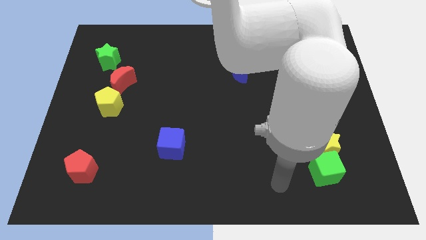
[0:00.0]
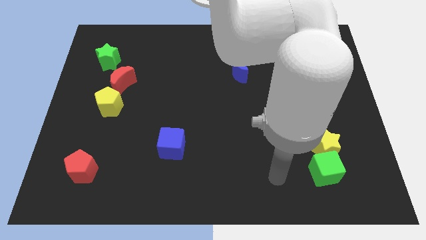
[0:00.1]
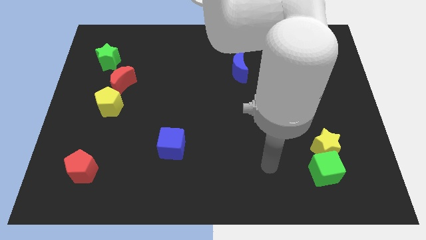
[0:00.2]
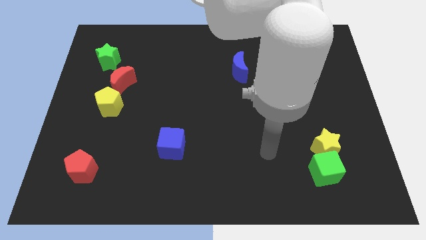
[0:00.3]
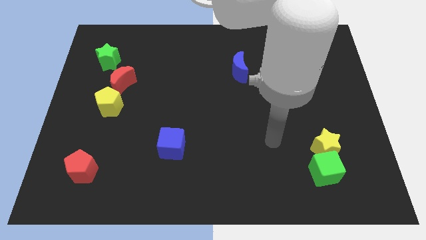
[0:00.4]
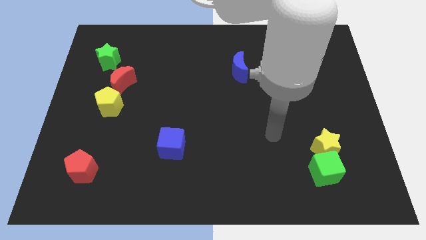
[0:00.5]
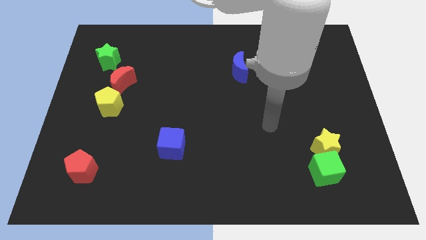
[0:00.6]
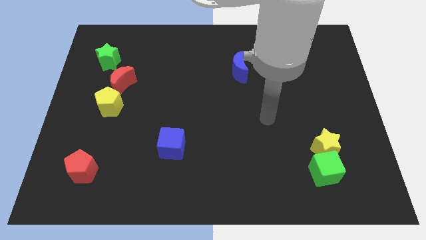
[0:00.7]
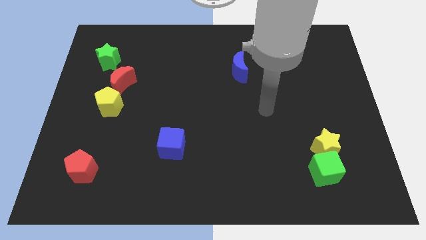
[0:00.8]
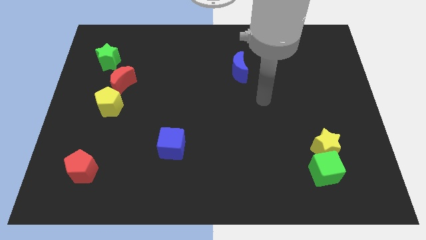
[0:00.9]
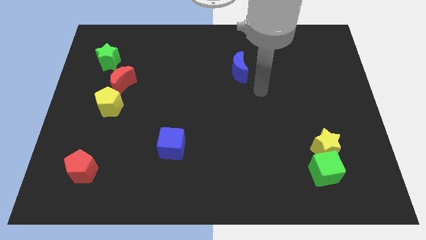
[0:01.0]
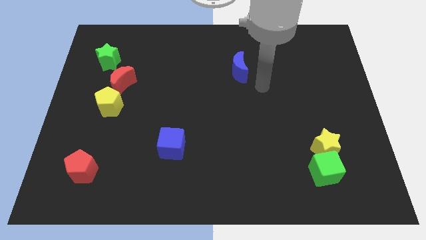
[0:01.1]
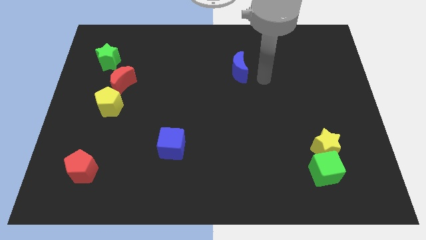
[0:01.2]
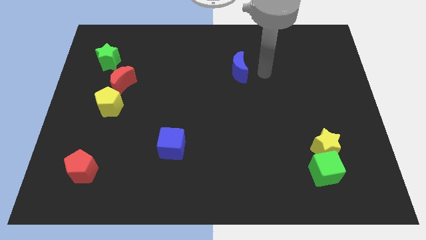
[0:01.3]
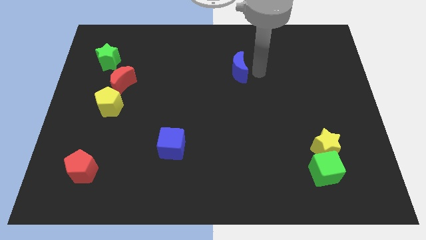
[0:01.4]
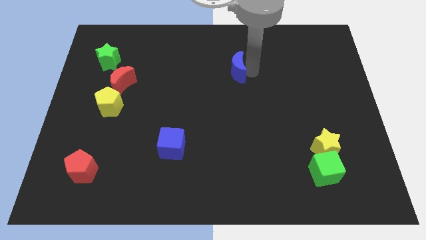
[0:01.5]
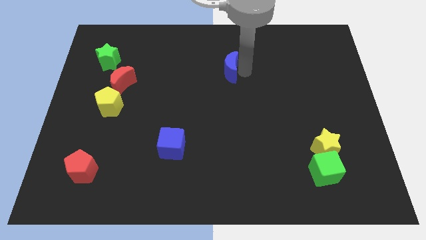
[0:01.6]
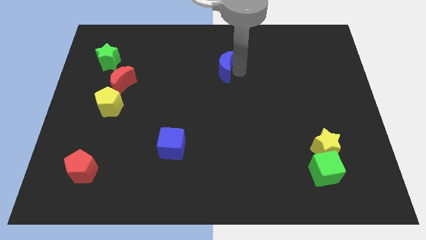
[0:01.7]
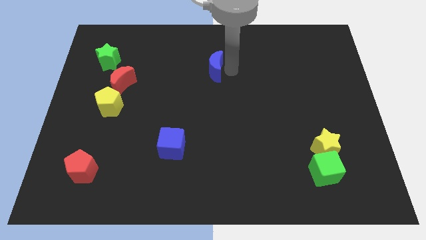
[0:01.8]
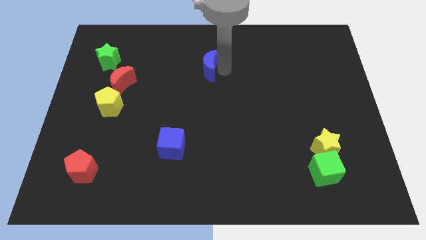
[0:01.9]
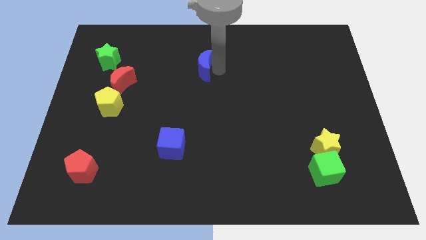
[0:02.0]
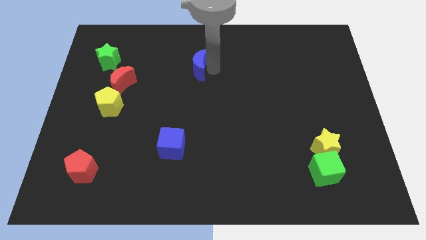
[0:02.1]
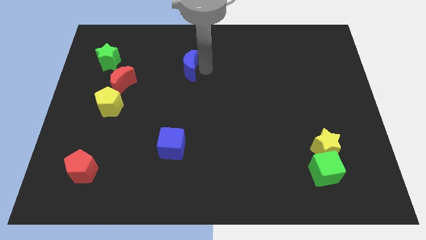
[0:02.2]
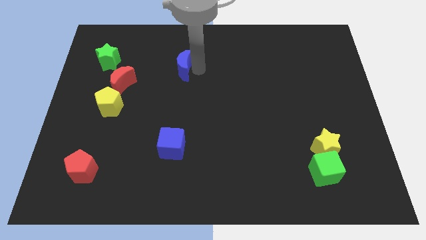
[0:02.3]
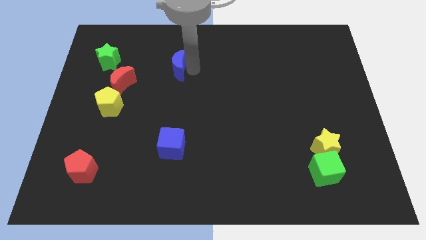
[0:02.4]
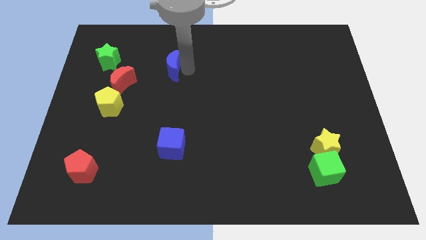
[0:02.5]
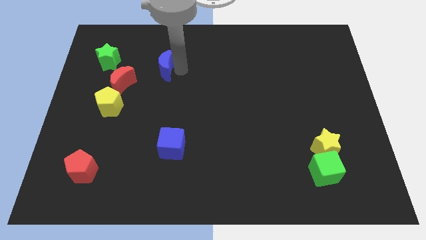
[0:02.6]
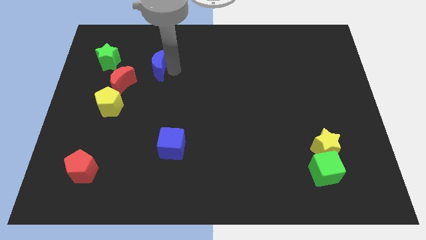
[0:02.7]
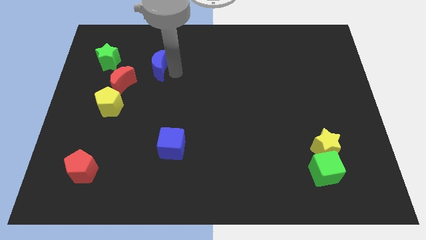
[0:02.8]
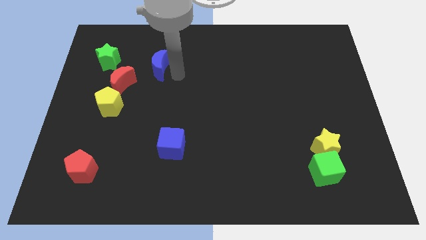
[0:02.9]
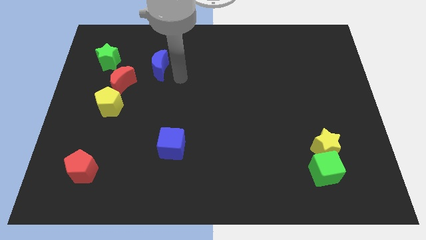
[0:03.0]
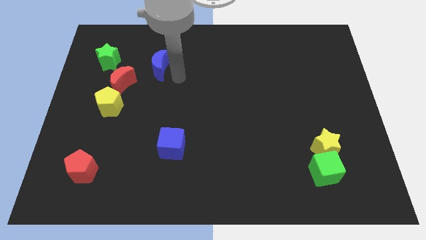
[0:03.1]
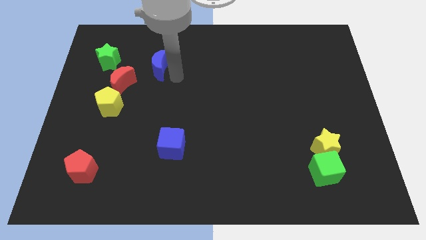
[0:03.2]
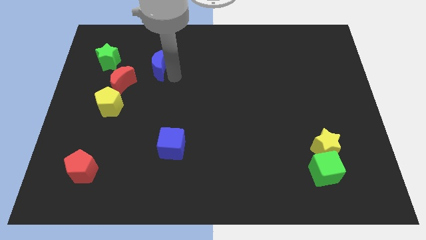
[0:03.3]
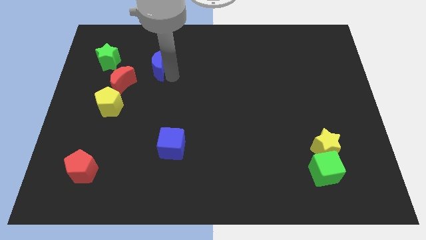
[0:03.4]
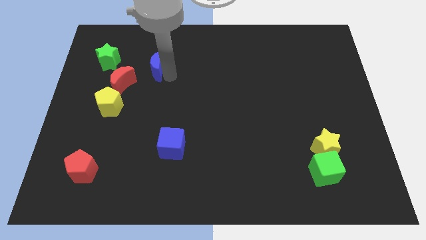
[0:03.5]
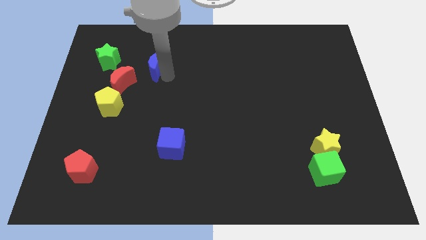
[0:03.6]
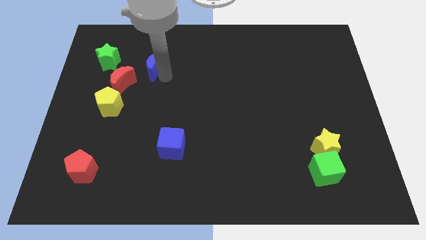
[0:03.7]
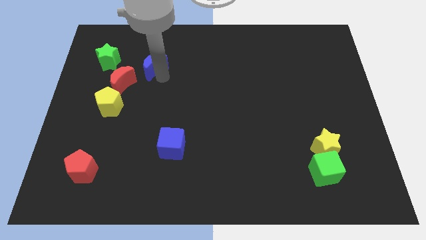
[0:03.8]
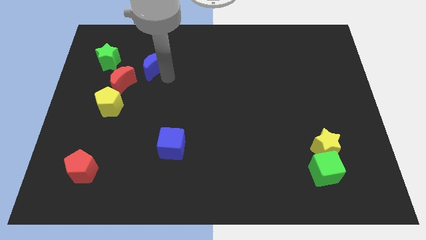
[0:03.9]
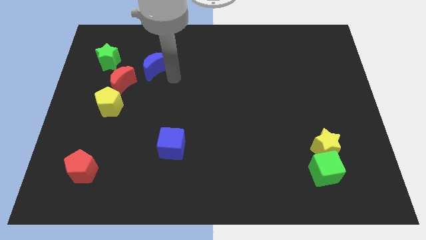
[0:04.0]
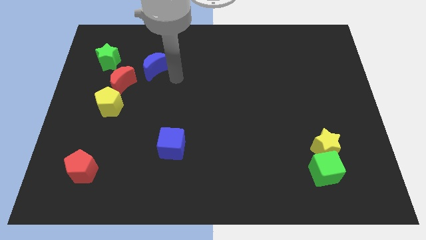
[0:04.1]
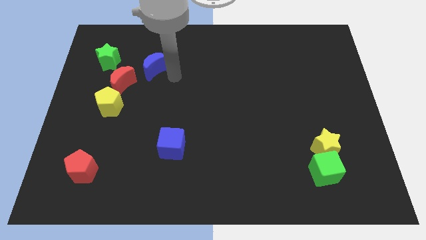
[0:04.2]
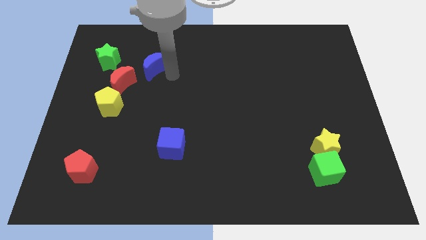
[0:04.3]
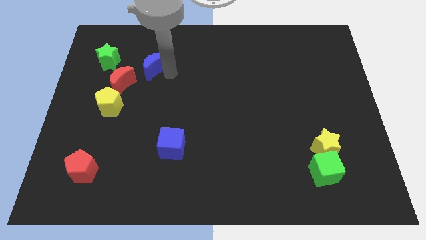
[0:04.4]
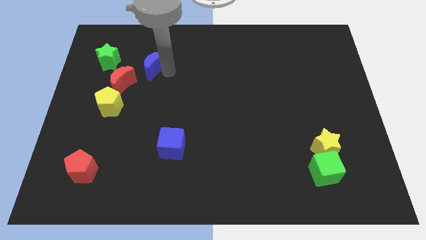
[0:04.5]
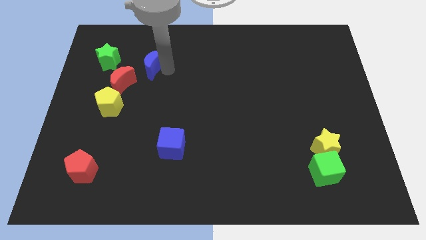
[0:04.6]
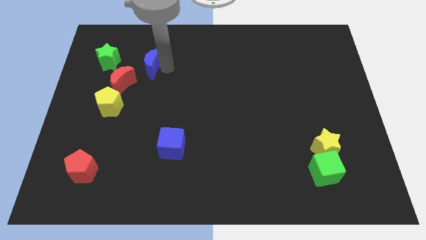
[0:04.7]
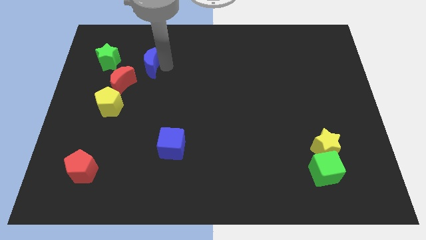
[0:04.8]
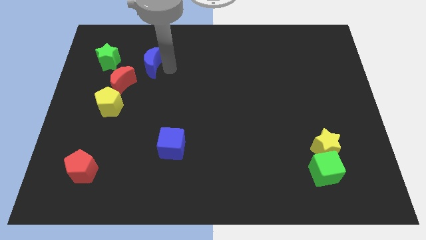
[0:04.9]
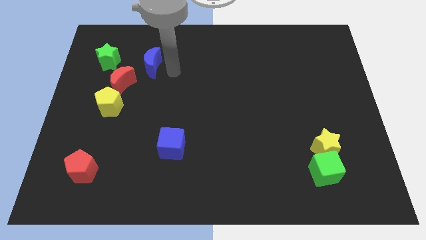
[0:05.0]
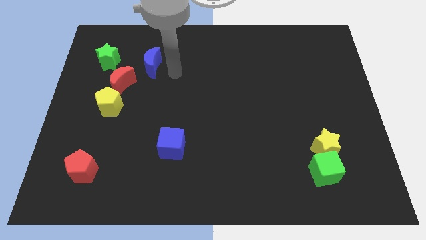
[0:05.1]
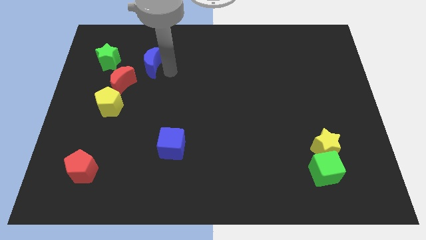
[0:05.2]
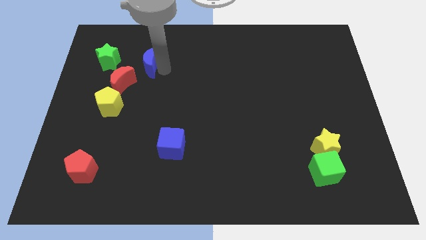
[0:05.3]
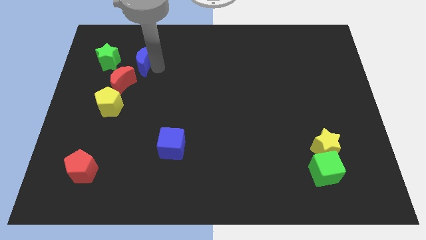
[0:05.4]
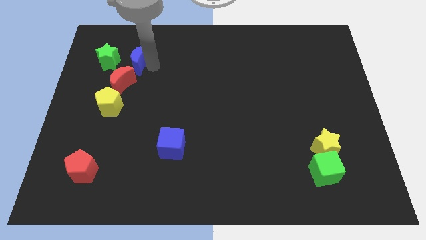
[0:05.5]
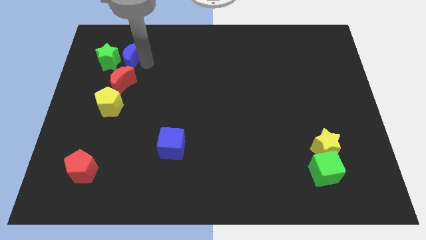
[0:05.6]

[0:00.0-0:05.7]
put the blue moon towards the green star

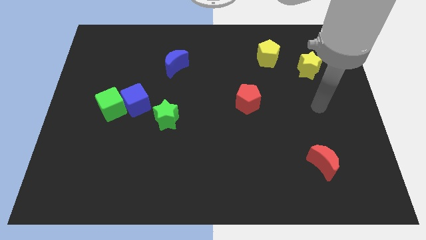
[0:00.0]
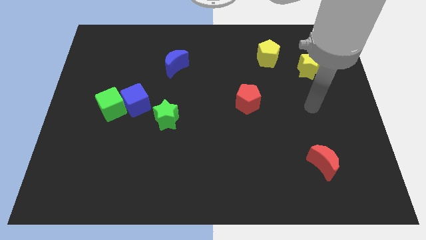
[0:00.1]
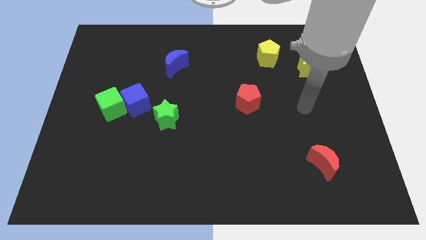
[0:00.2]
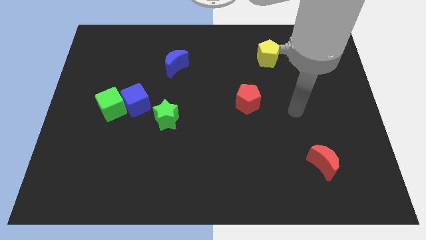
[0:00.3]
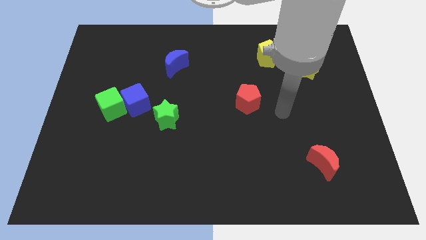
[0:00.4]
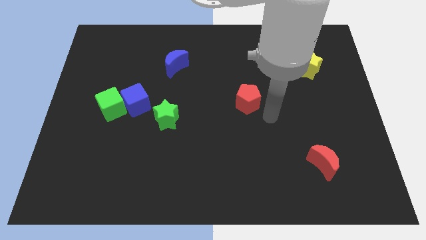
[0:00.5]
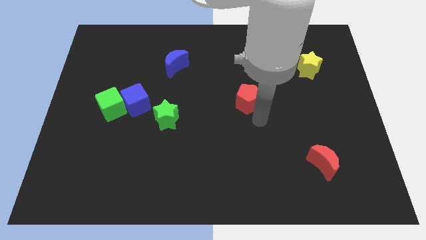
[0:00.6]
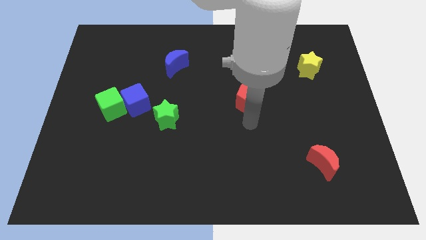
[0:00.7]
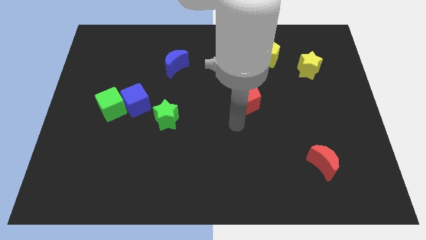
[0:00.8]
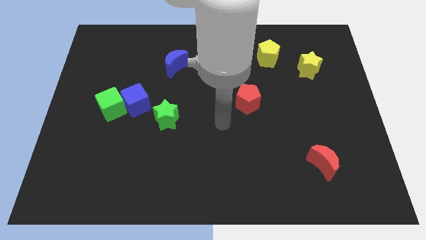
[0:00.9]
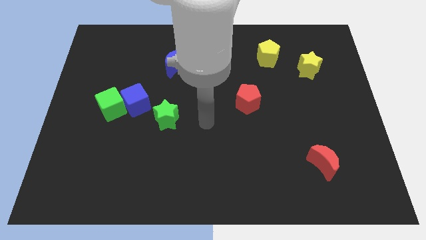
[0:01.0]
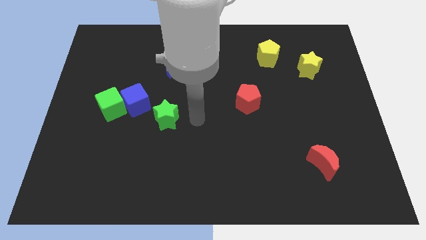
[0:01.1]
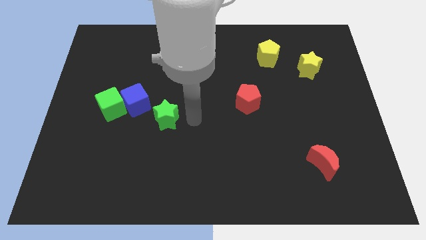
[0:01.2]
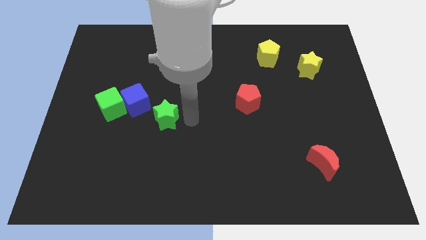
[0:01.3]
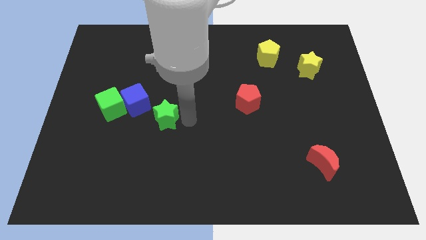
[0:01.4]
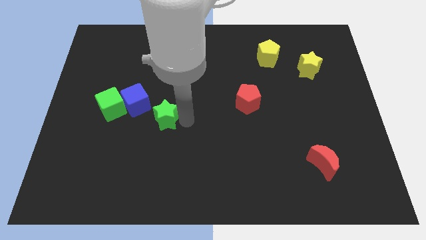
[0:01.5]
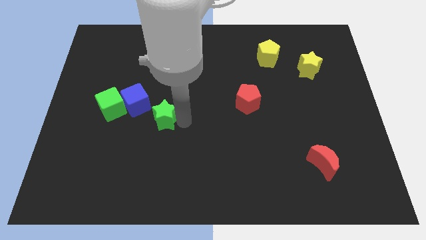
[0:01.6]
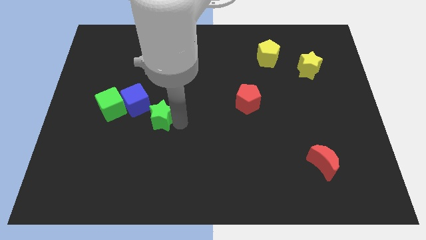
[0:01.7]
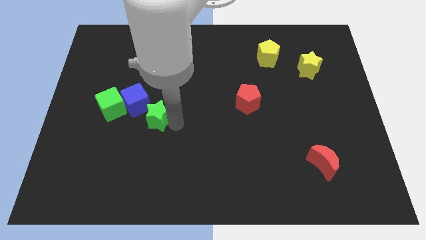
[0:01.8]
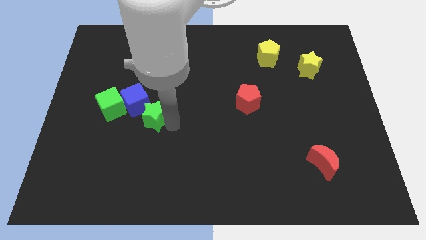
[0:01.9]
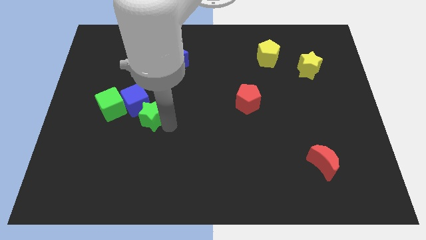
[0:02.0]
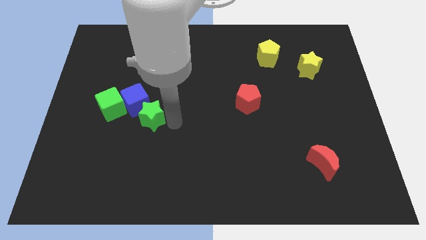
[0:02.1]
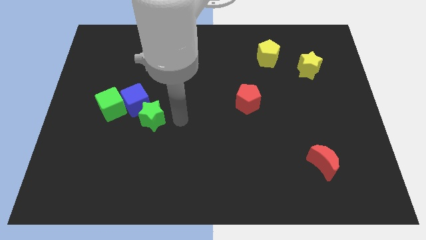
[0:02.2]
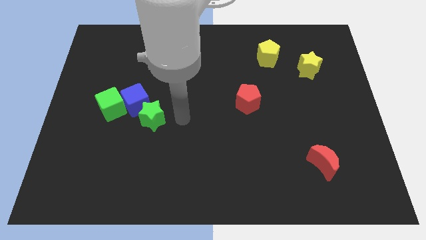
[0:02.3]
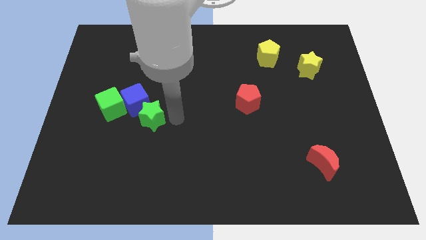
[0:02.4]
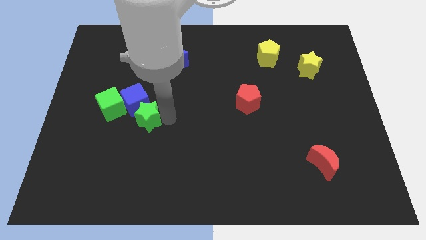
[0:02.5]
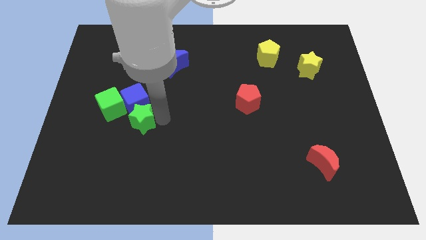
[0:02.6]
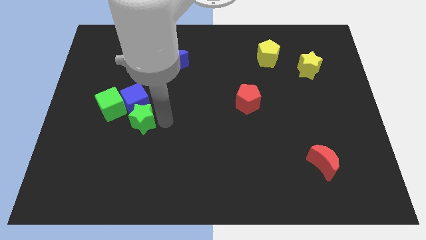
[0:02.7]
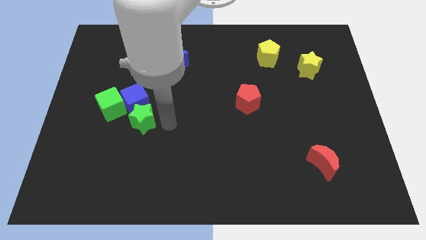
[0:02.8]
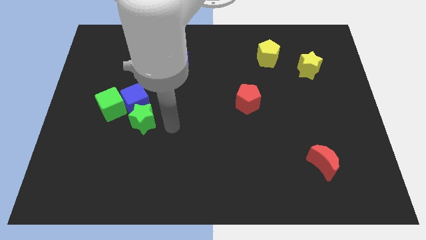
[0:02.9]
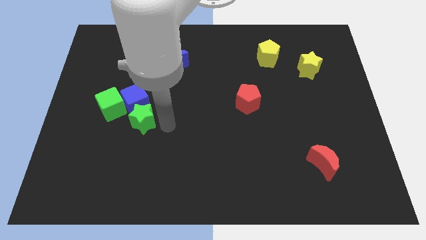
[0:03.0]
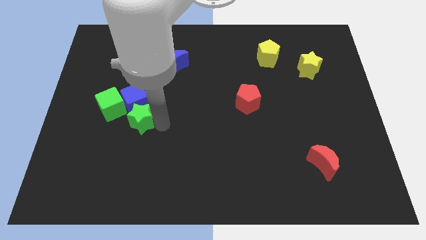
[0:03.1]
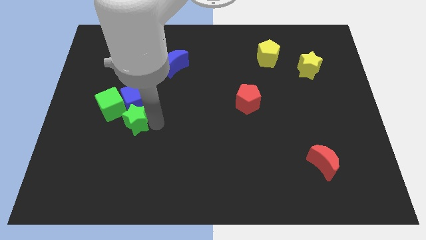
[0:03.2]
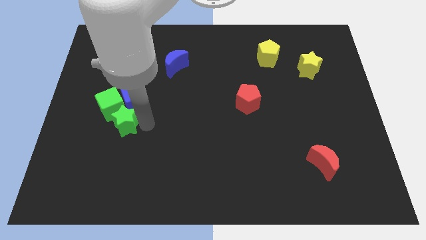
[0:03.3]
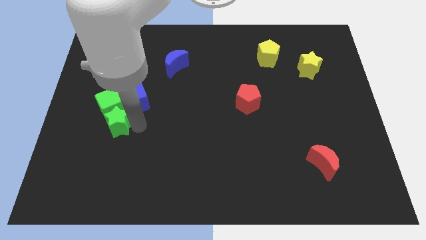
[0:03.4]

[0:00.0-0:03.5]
slide the green star close to the green cube
